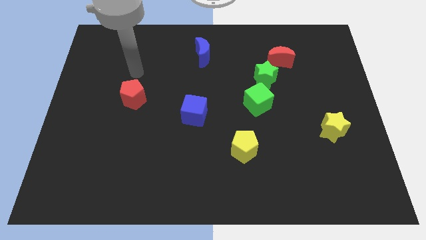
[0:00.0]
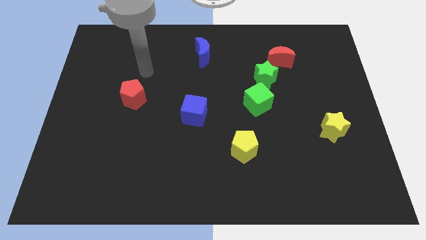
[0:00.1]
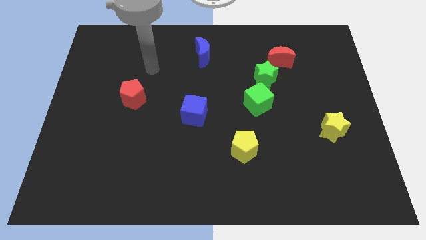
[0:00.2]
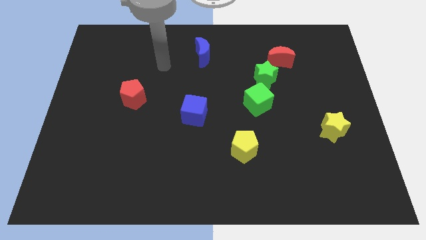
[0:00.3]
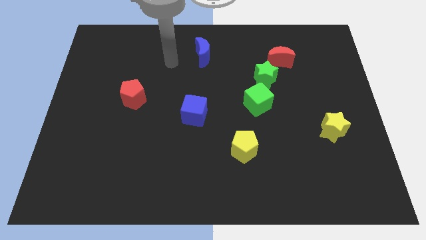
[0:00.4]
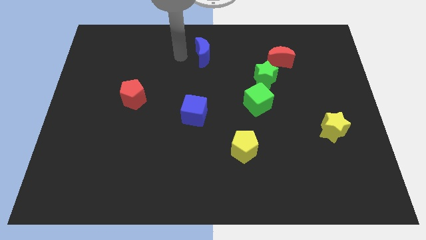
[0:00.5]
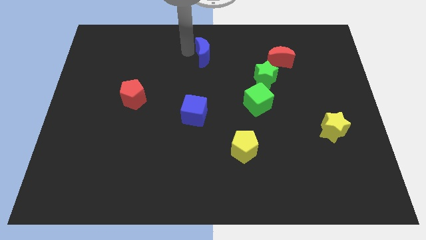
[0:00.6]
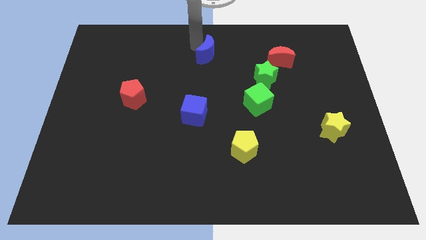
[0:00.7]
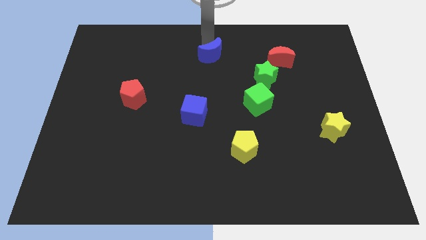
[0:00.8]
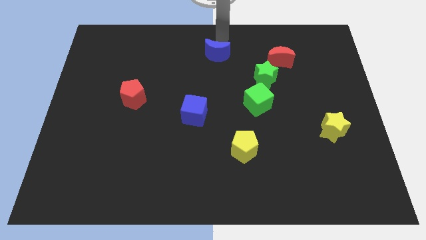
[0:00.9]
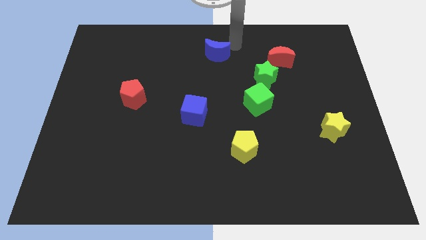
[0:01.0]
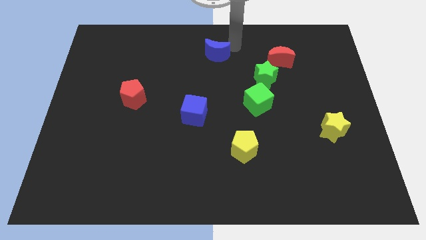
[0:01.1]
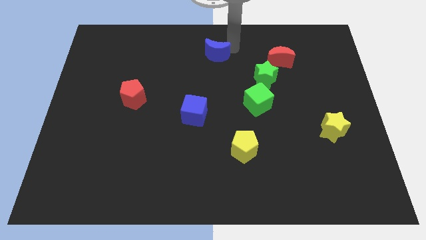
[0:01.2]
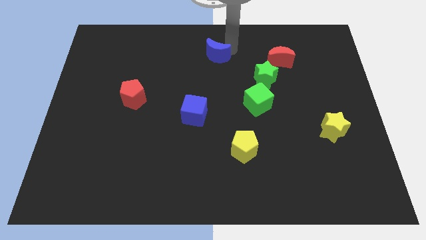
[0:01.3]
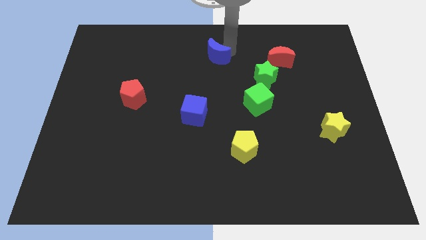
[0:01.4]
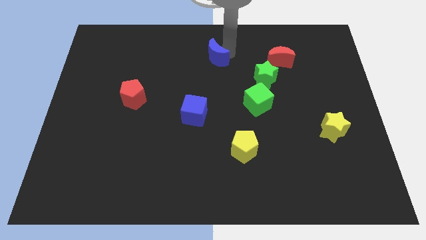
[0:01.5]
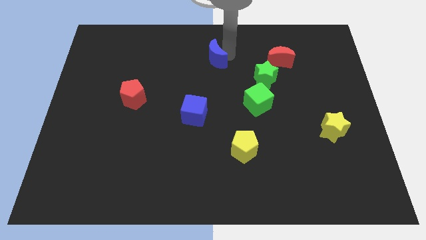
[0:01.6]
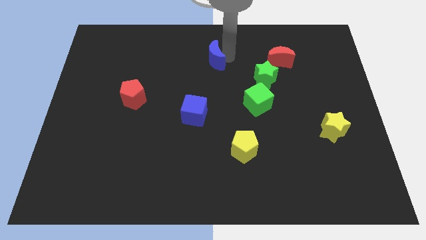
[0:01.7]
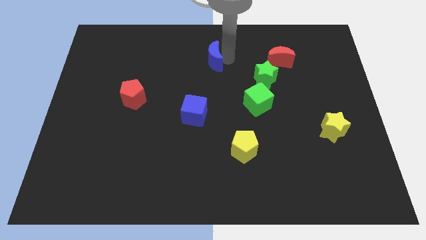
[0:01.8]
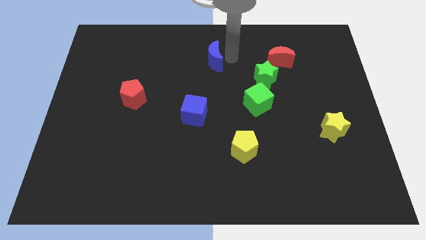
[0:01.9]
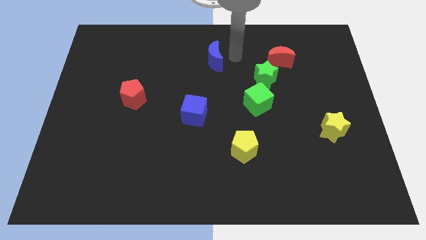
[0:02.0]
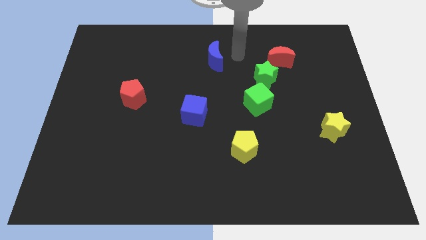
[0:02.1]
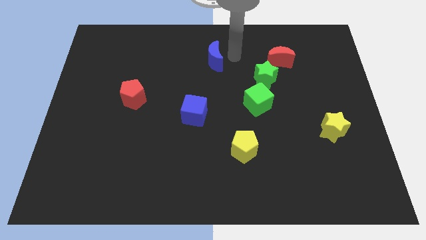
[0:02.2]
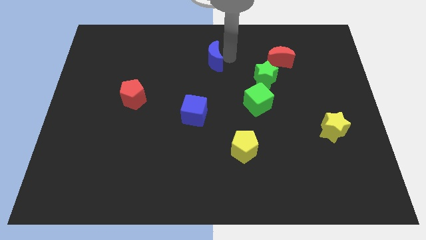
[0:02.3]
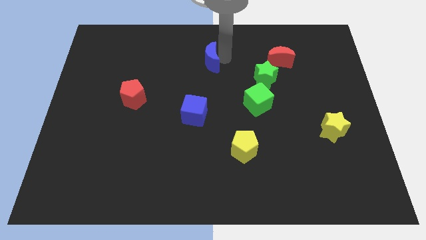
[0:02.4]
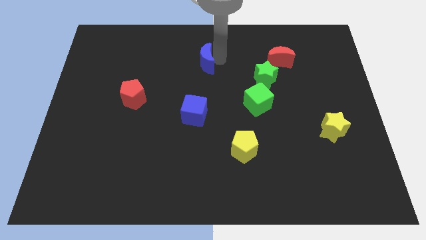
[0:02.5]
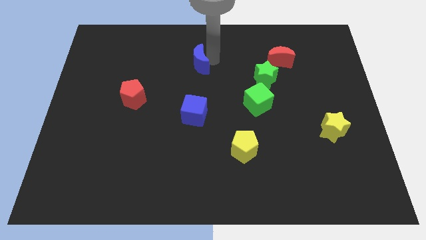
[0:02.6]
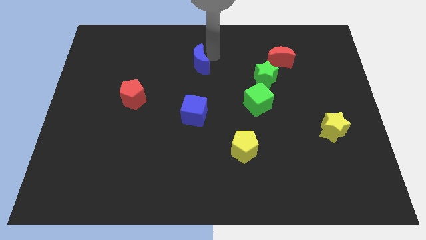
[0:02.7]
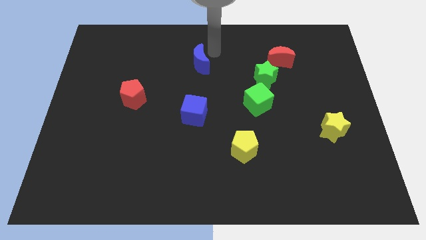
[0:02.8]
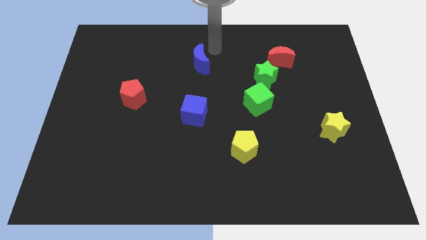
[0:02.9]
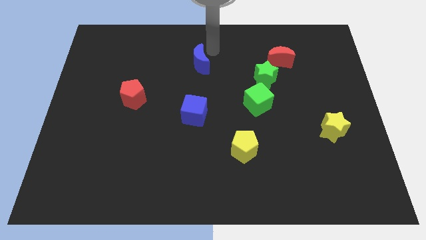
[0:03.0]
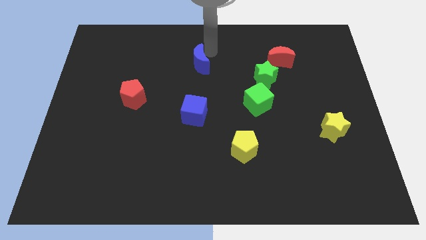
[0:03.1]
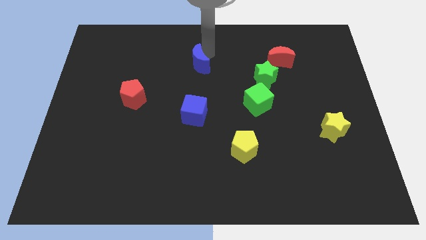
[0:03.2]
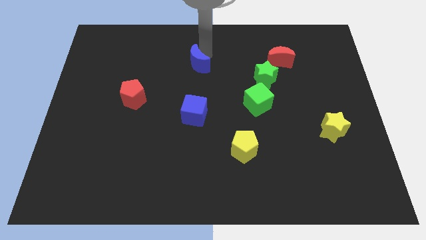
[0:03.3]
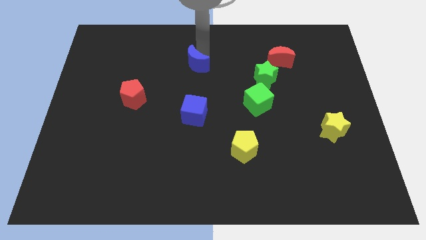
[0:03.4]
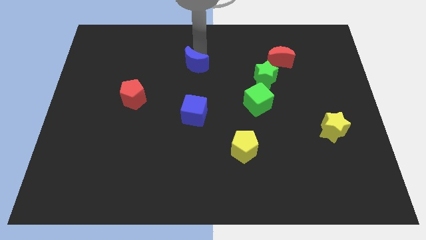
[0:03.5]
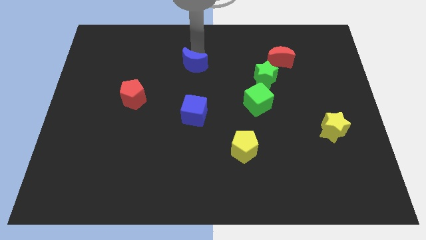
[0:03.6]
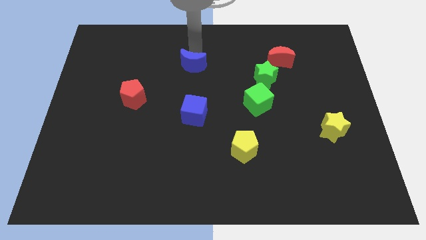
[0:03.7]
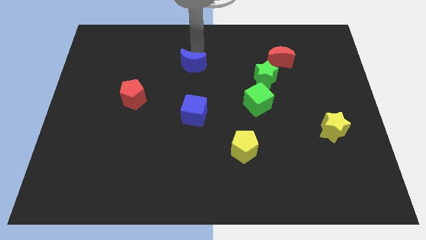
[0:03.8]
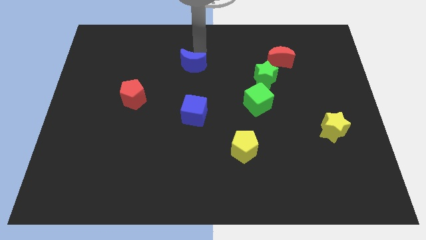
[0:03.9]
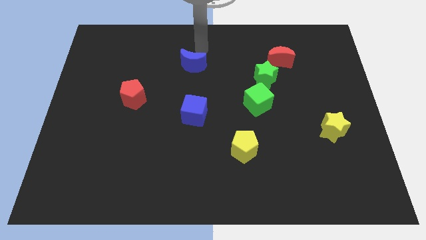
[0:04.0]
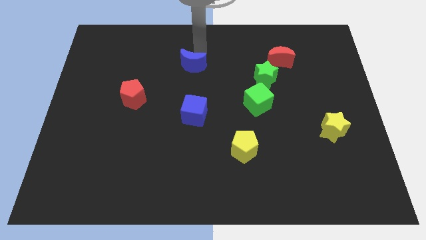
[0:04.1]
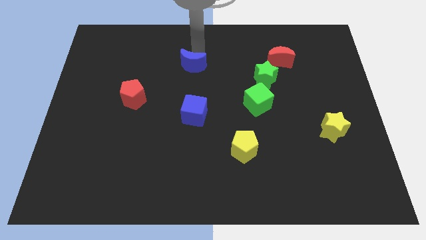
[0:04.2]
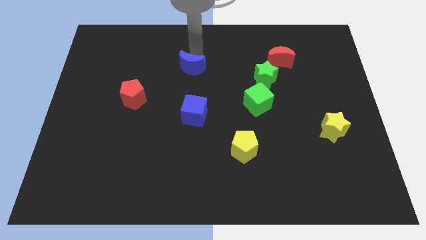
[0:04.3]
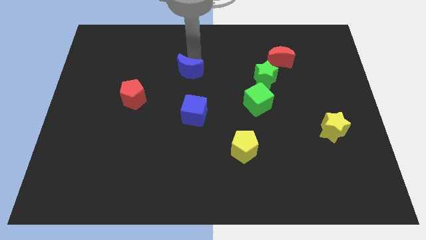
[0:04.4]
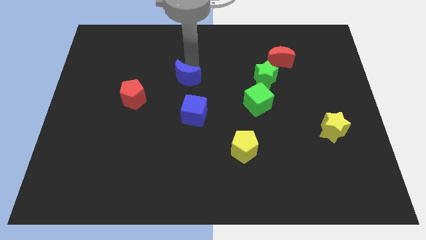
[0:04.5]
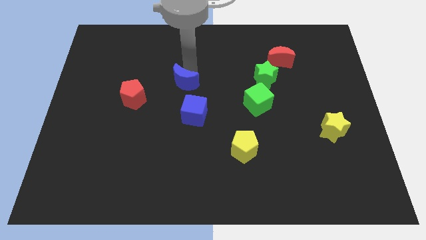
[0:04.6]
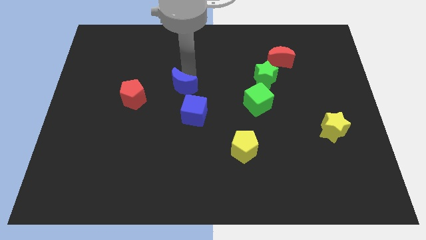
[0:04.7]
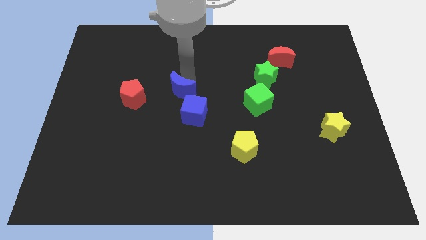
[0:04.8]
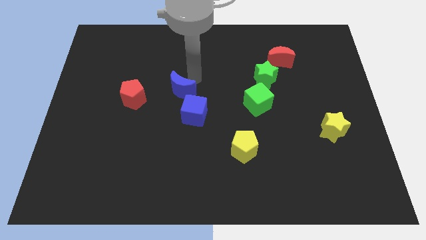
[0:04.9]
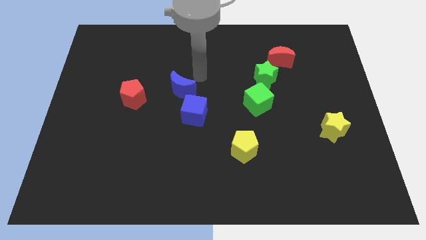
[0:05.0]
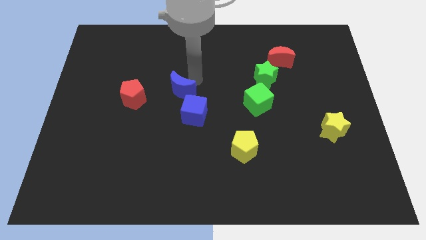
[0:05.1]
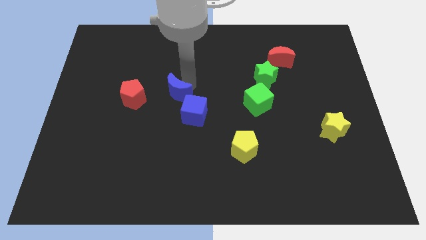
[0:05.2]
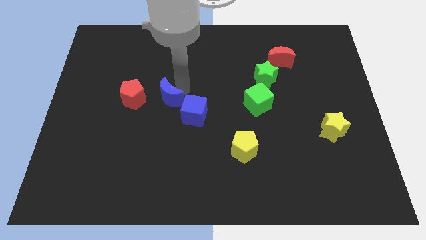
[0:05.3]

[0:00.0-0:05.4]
push the blue moon to the left side of the blue cube

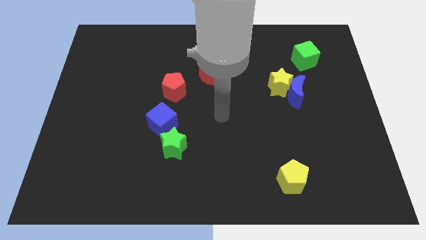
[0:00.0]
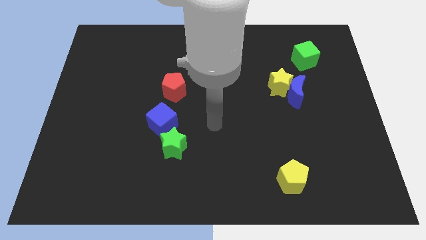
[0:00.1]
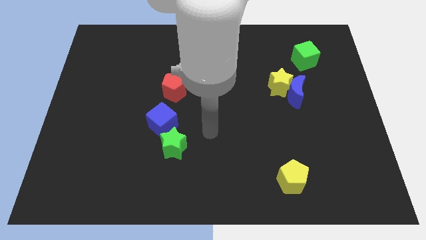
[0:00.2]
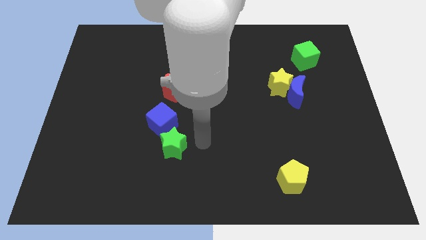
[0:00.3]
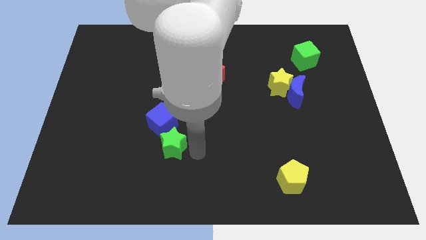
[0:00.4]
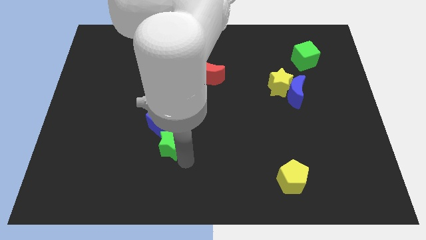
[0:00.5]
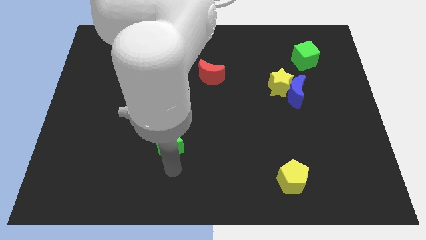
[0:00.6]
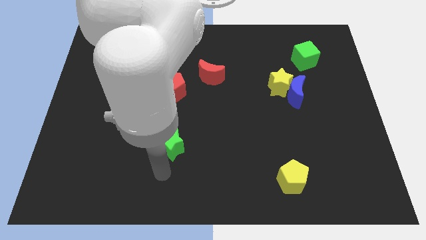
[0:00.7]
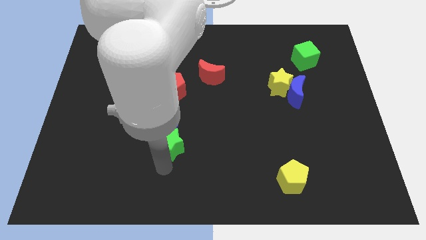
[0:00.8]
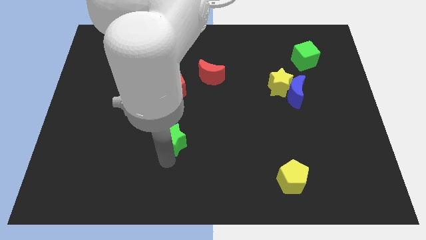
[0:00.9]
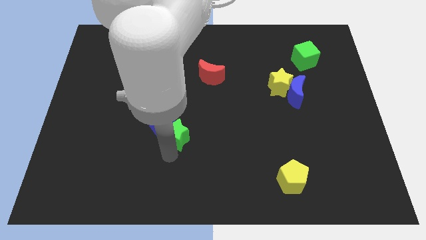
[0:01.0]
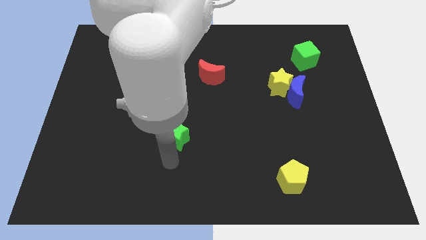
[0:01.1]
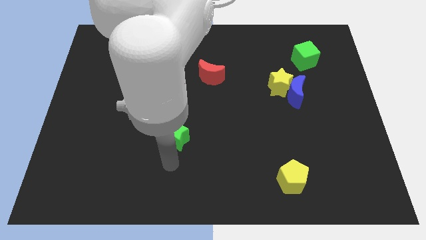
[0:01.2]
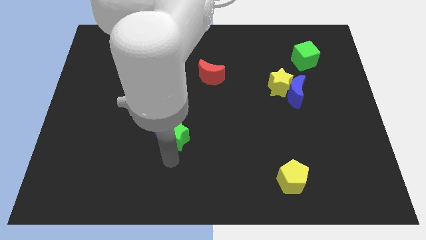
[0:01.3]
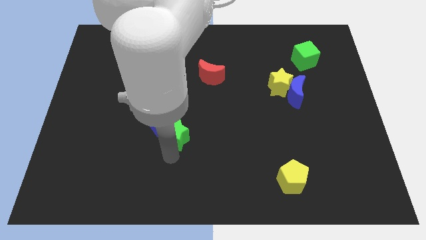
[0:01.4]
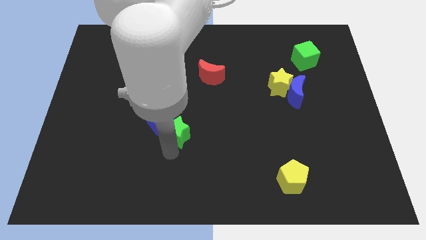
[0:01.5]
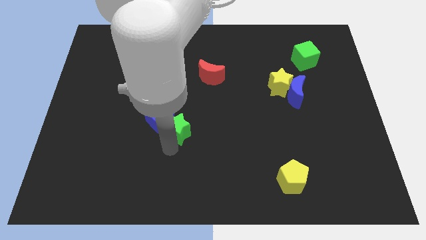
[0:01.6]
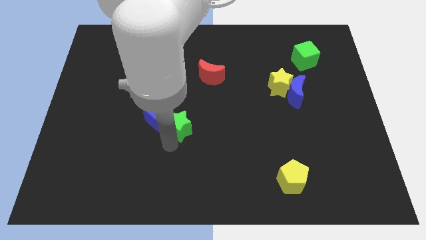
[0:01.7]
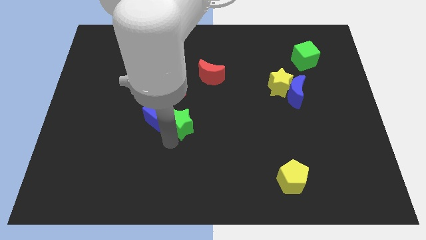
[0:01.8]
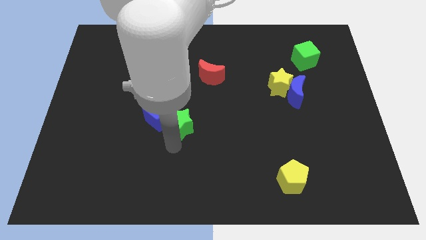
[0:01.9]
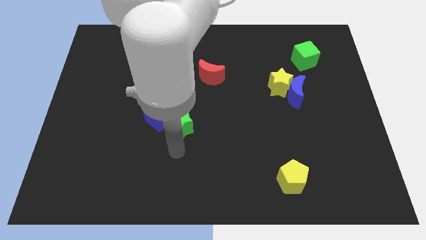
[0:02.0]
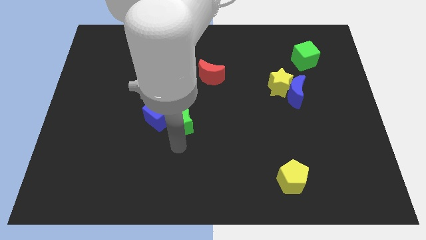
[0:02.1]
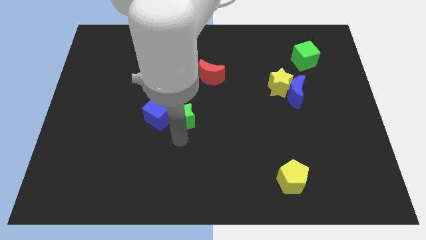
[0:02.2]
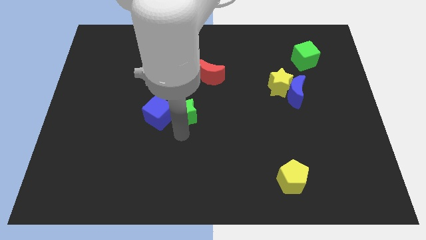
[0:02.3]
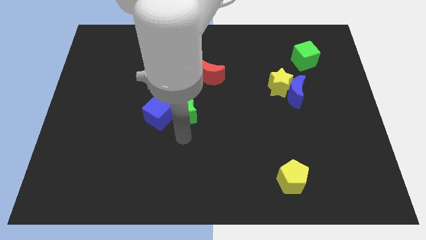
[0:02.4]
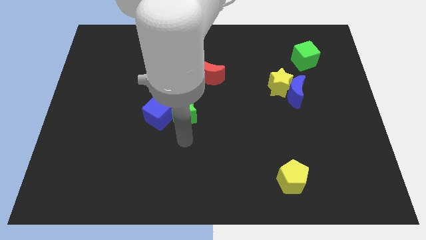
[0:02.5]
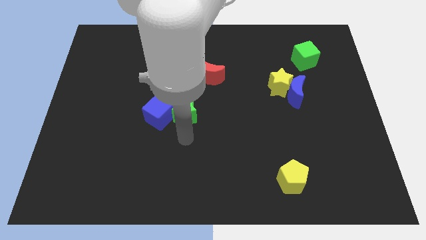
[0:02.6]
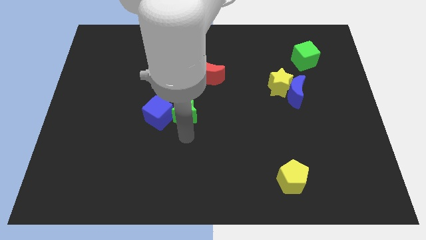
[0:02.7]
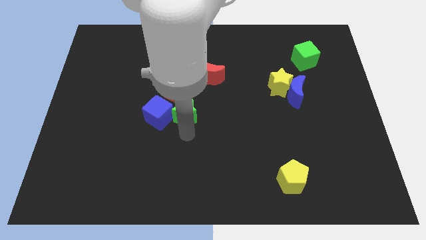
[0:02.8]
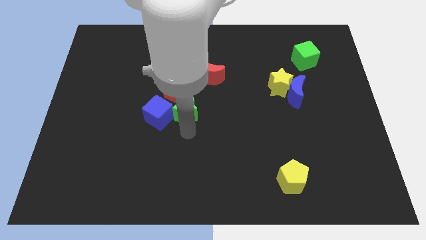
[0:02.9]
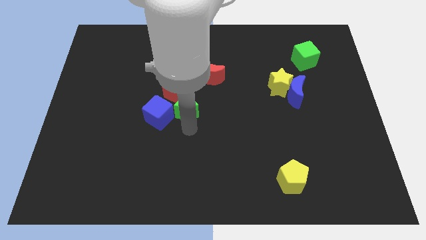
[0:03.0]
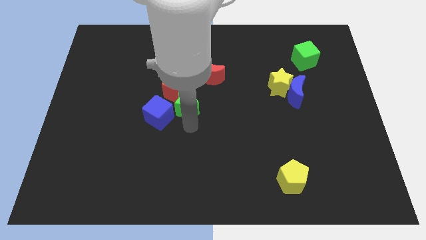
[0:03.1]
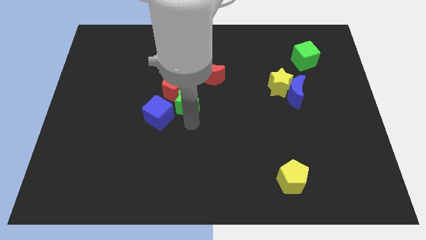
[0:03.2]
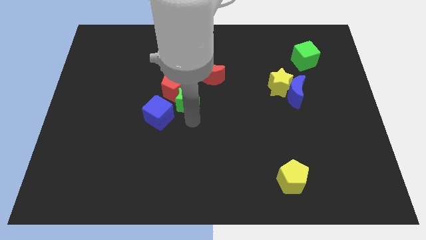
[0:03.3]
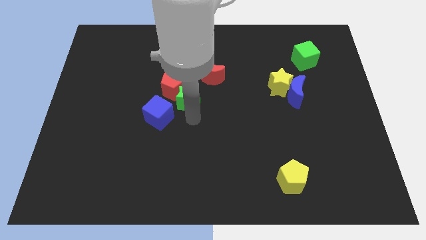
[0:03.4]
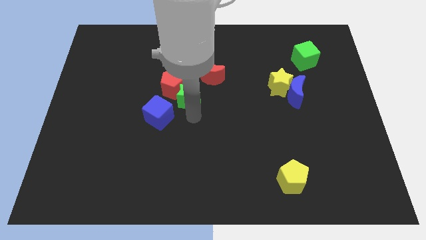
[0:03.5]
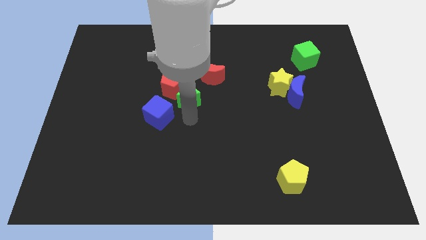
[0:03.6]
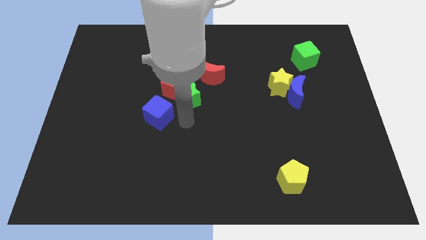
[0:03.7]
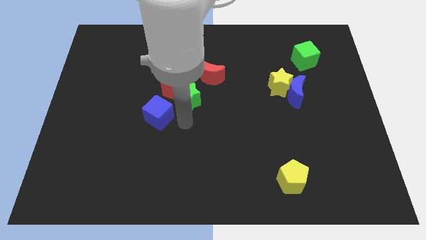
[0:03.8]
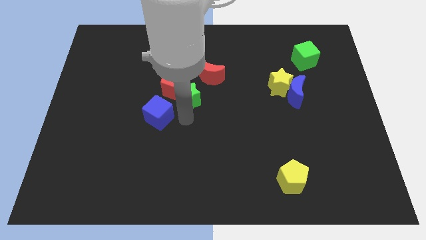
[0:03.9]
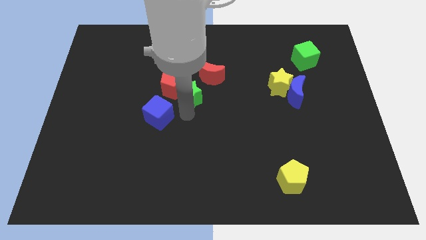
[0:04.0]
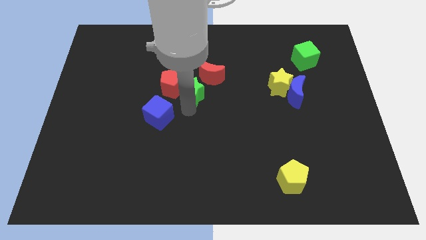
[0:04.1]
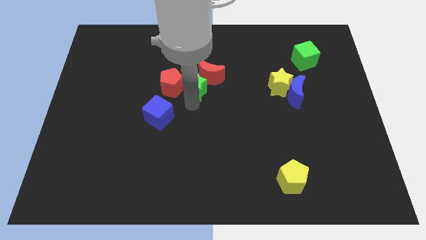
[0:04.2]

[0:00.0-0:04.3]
slide the green star just left of the red moon
